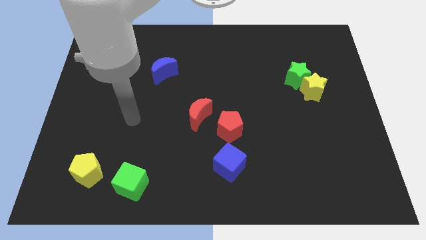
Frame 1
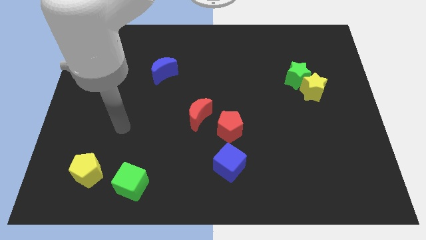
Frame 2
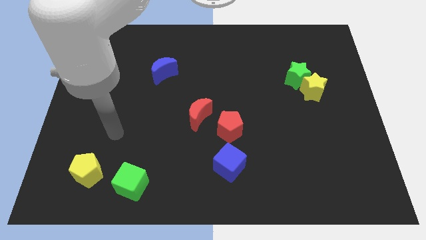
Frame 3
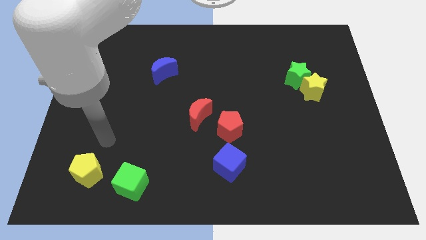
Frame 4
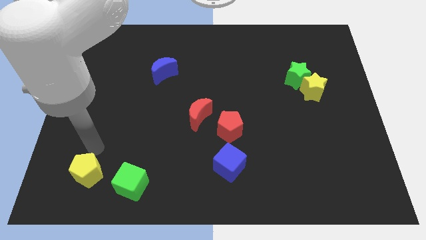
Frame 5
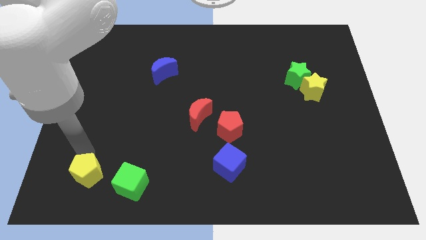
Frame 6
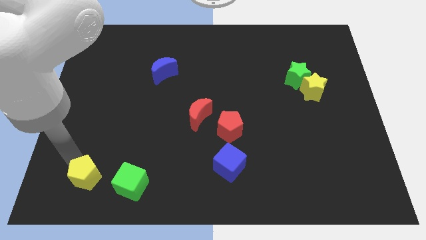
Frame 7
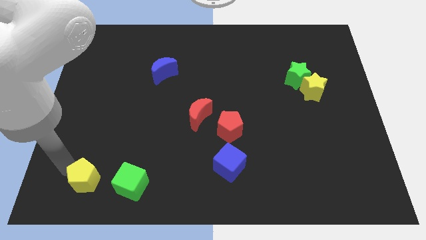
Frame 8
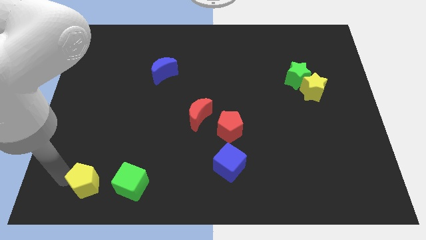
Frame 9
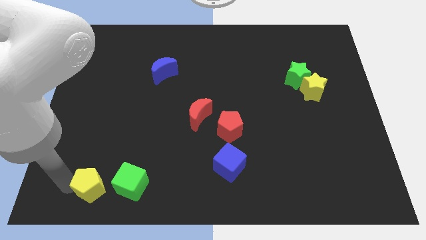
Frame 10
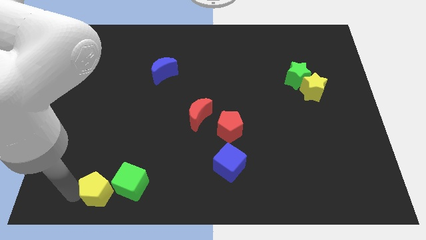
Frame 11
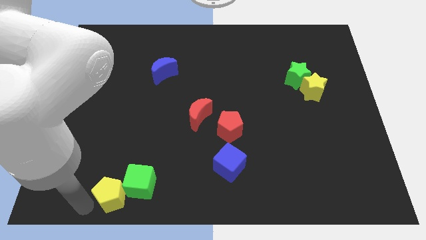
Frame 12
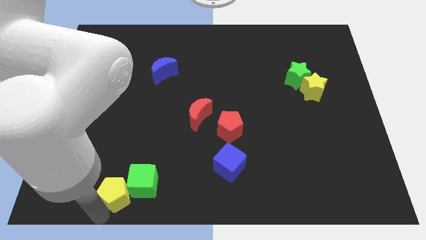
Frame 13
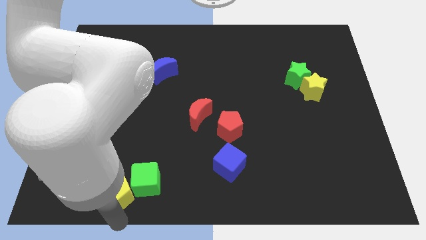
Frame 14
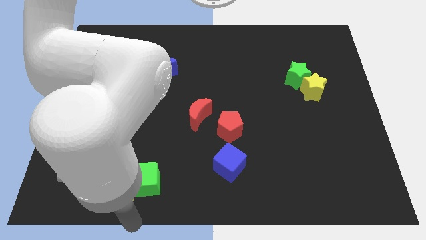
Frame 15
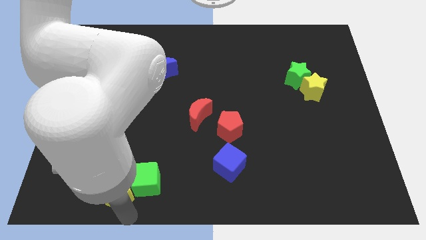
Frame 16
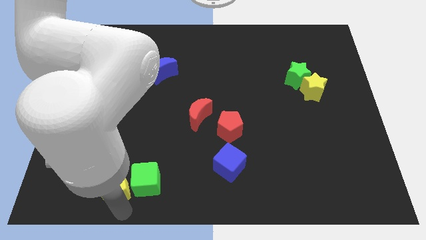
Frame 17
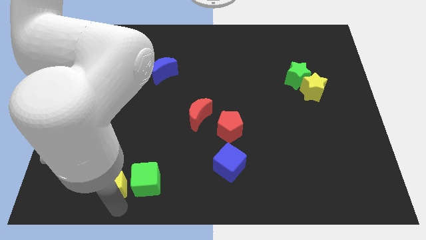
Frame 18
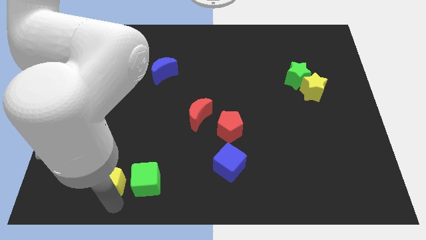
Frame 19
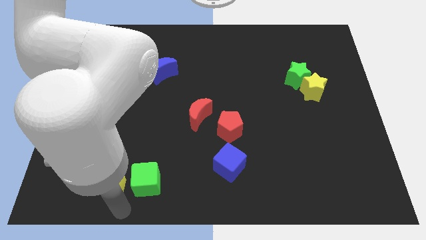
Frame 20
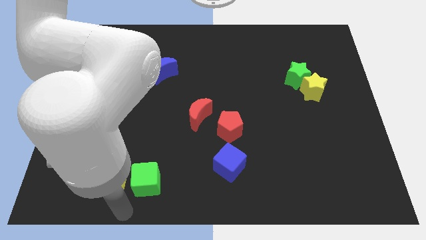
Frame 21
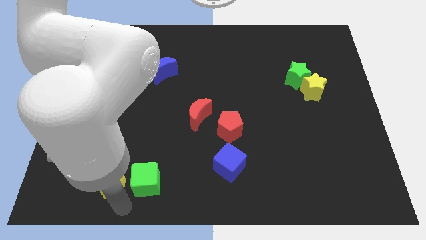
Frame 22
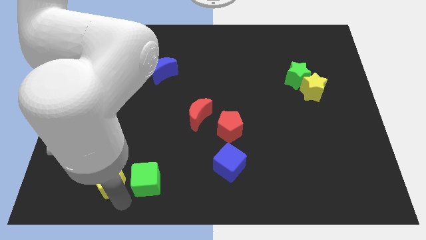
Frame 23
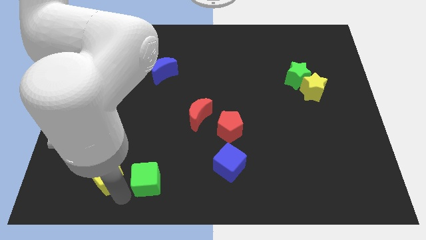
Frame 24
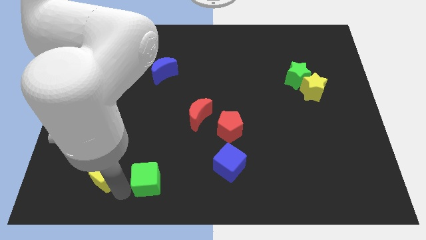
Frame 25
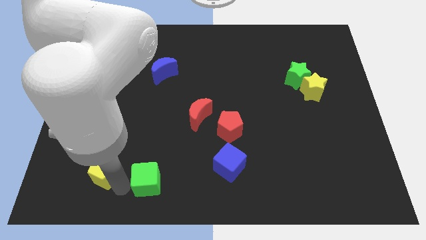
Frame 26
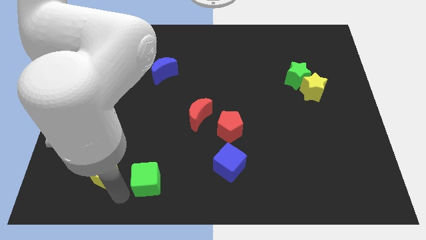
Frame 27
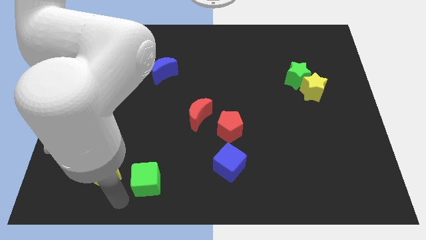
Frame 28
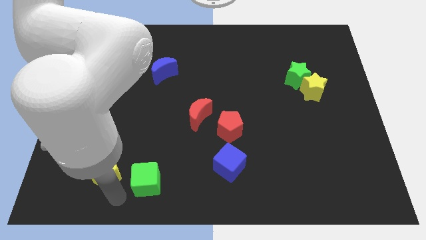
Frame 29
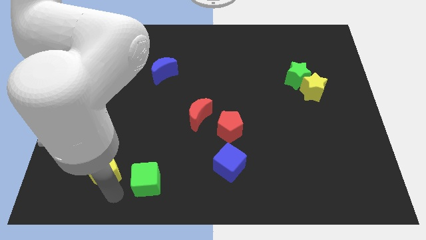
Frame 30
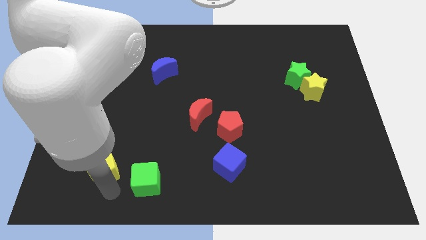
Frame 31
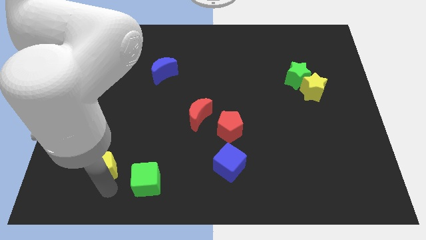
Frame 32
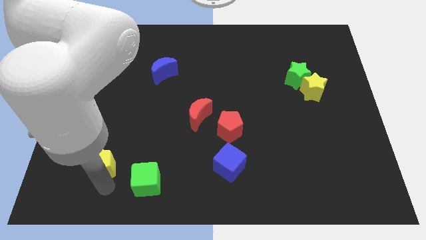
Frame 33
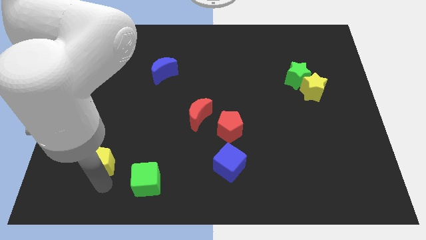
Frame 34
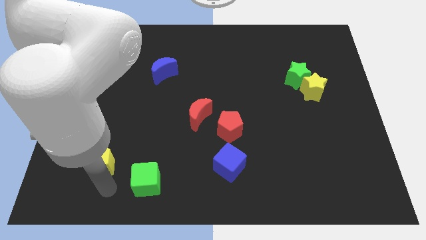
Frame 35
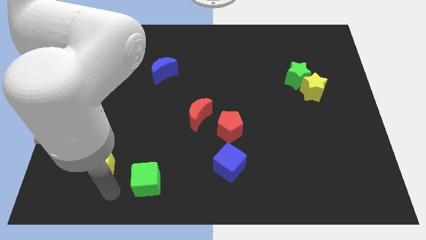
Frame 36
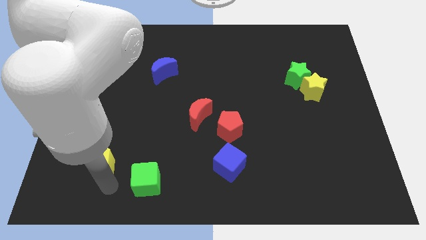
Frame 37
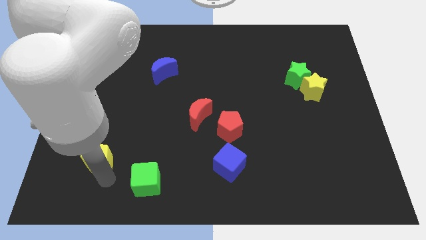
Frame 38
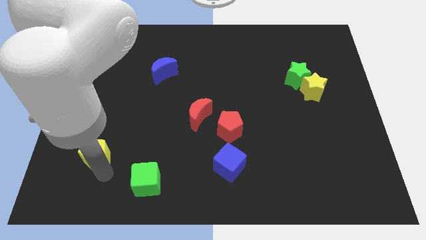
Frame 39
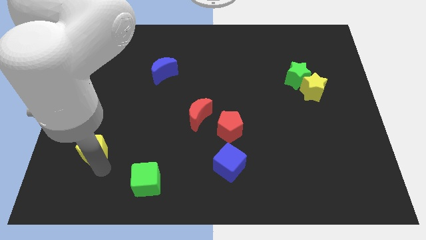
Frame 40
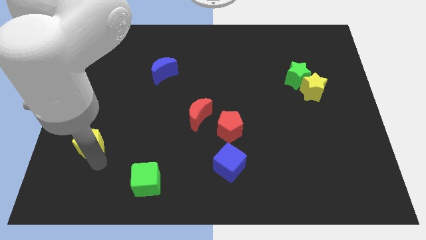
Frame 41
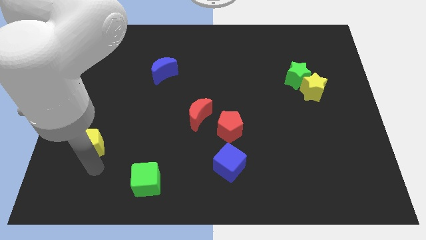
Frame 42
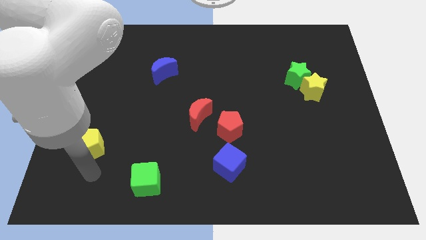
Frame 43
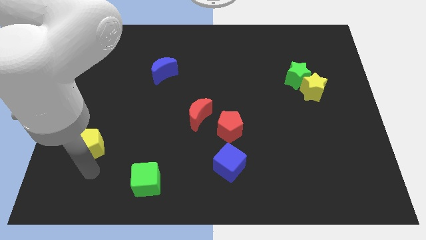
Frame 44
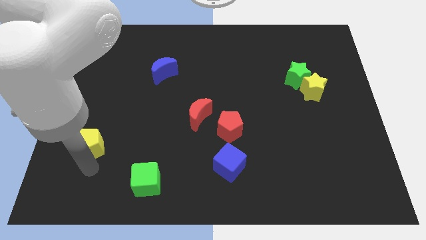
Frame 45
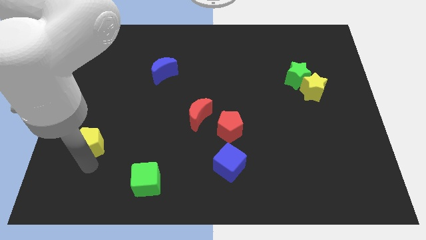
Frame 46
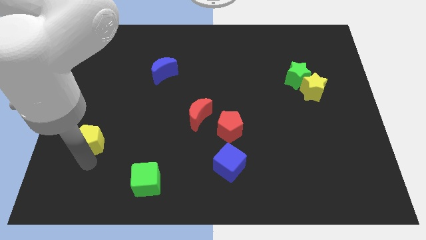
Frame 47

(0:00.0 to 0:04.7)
slightly slide the yellow pentagon upwards

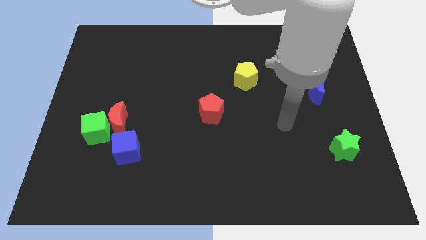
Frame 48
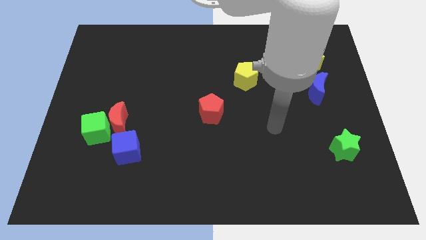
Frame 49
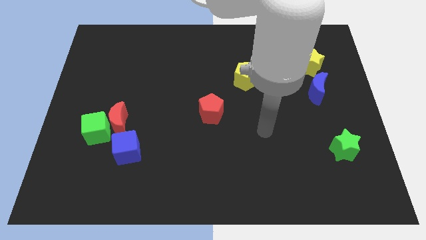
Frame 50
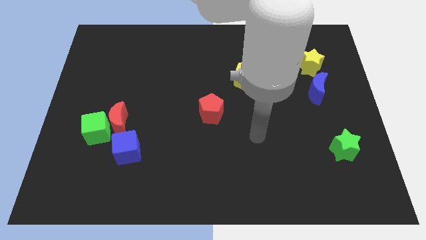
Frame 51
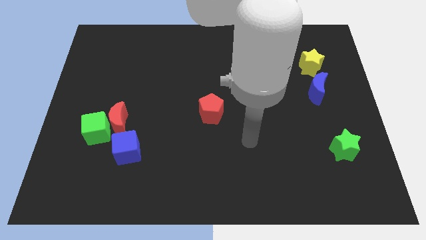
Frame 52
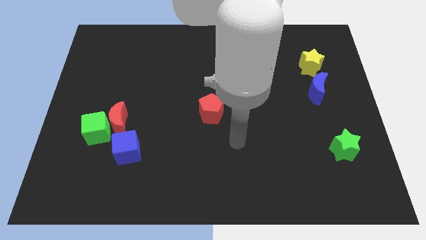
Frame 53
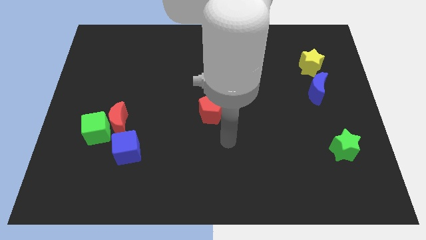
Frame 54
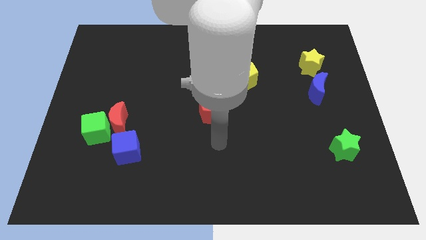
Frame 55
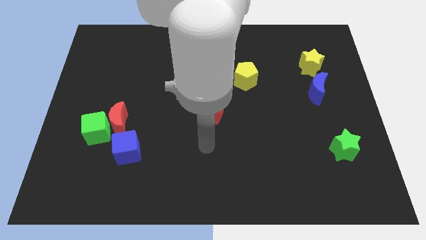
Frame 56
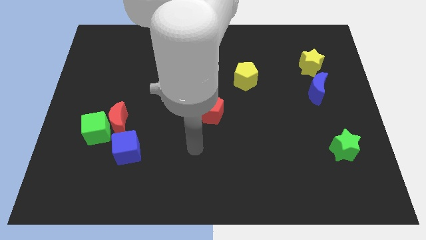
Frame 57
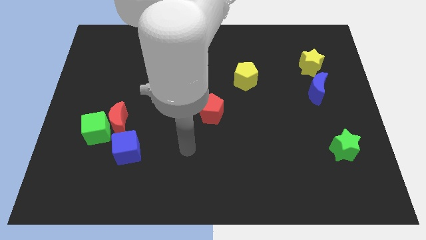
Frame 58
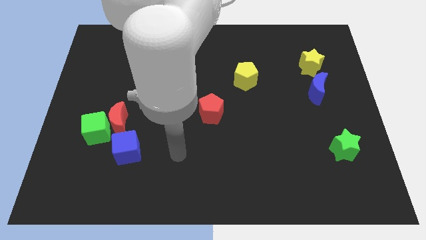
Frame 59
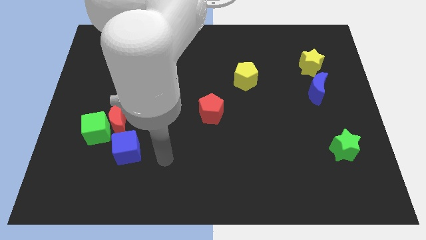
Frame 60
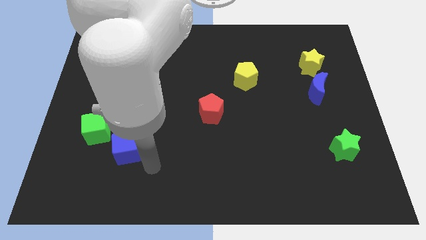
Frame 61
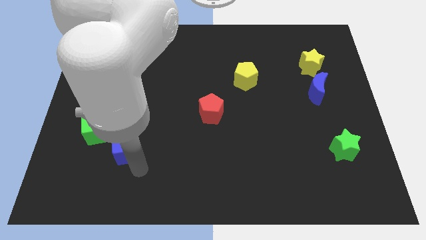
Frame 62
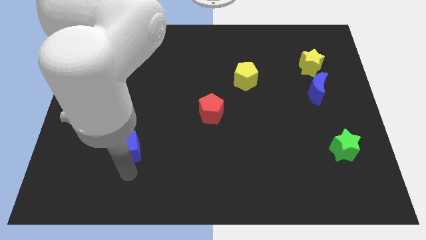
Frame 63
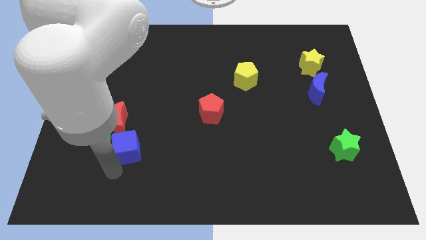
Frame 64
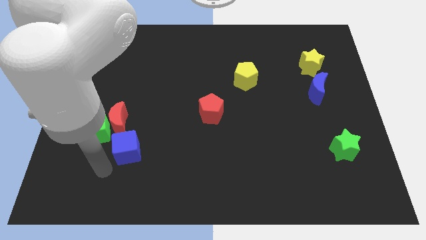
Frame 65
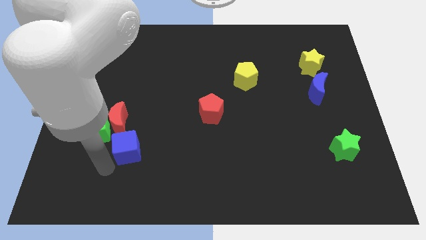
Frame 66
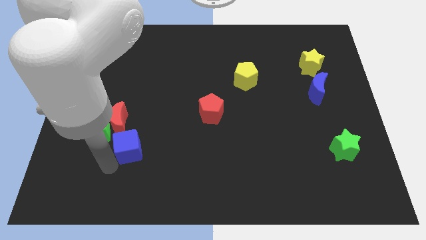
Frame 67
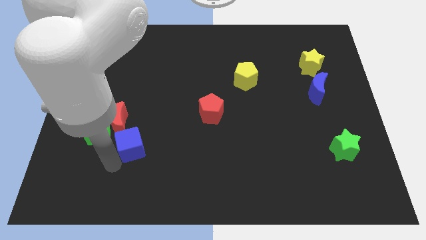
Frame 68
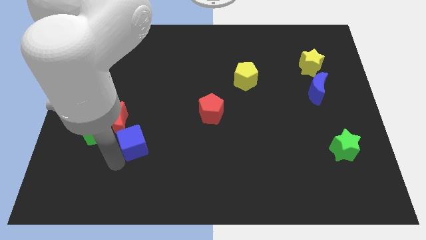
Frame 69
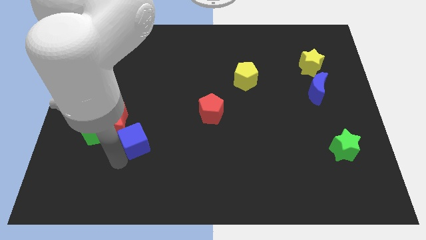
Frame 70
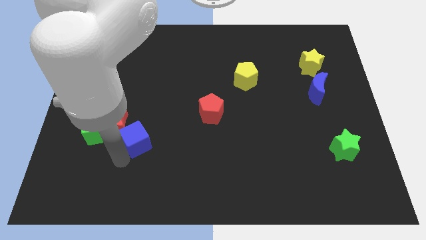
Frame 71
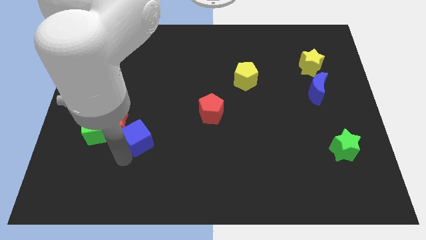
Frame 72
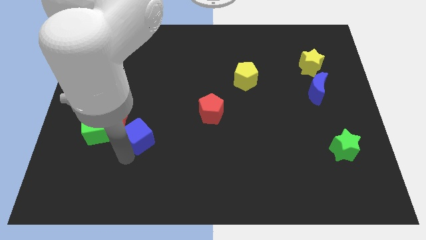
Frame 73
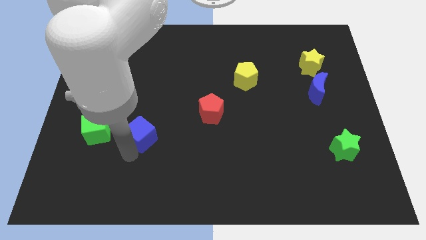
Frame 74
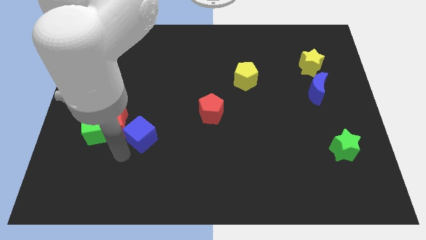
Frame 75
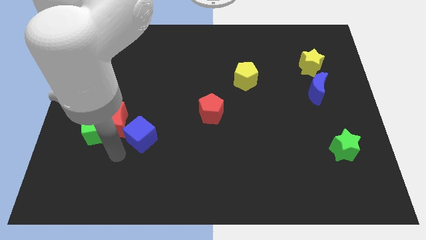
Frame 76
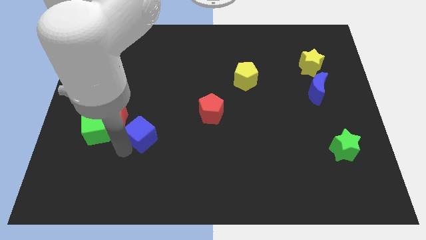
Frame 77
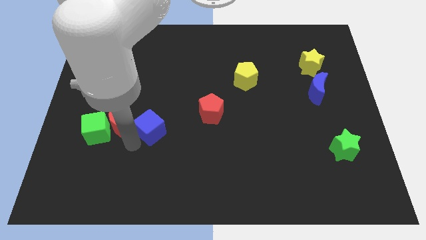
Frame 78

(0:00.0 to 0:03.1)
move the blue cube diagonally upwards and right slightly

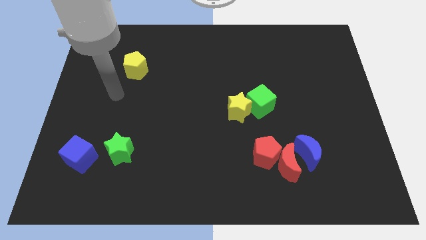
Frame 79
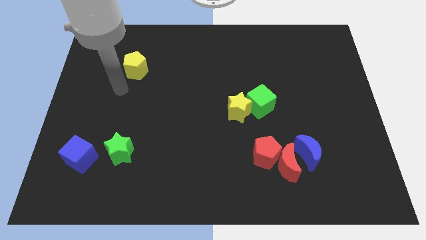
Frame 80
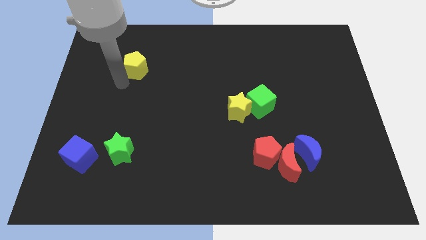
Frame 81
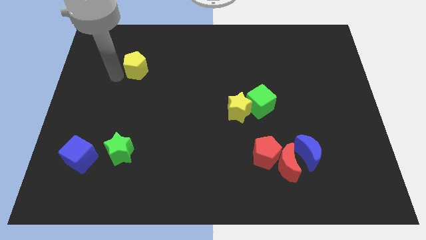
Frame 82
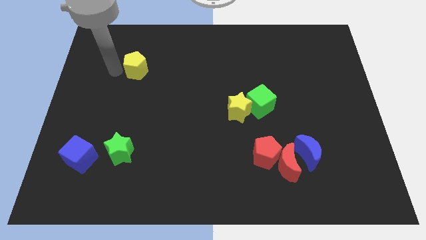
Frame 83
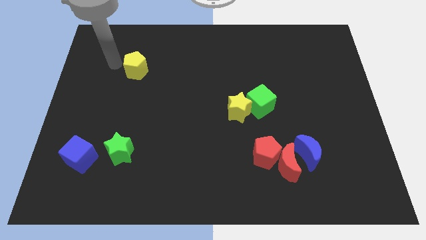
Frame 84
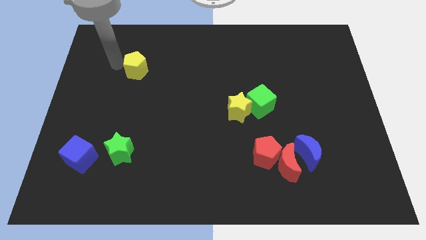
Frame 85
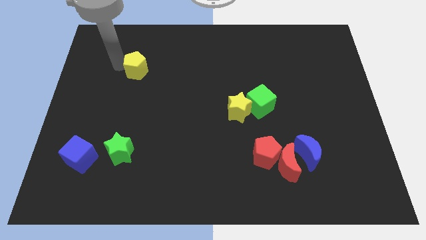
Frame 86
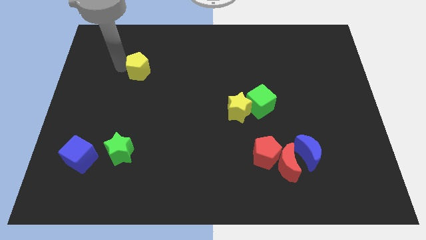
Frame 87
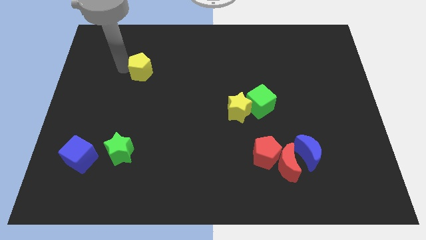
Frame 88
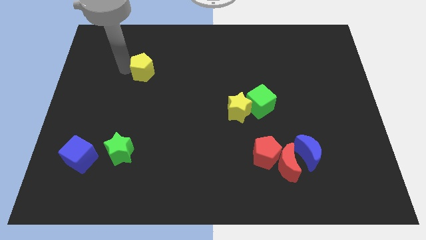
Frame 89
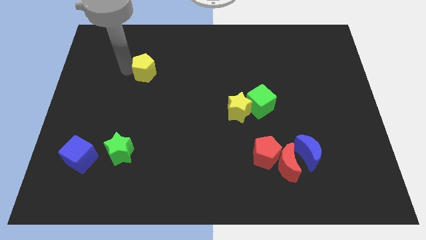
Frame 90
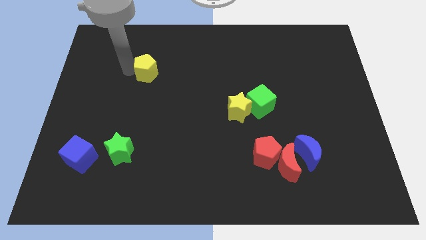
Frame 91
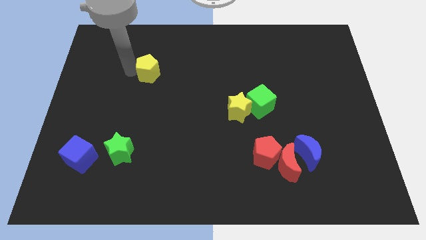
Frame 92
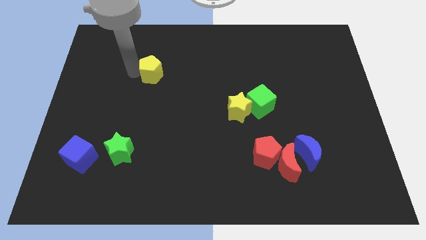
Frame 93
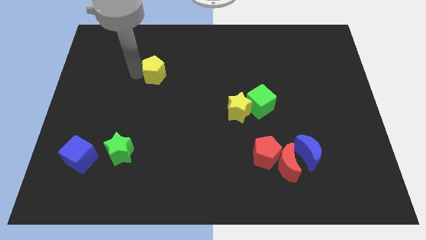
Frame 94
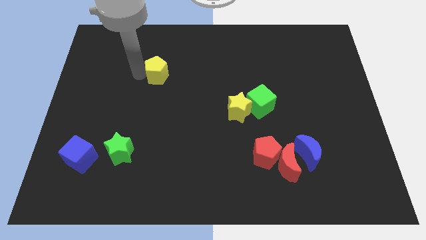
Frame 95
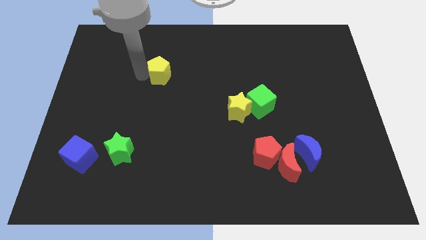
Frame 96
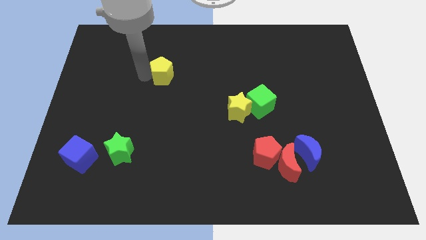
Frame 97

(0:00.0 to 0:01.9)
slide the yellow pentagon right a little bit
